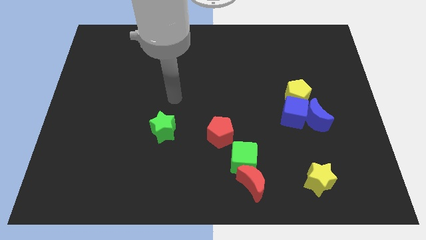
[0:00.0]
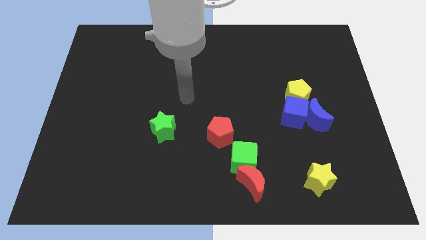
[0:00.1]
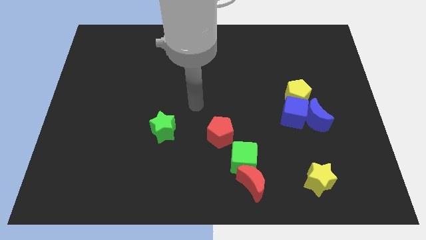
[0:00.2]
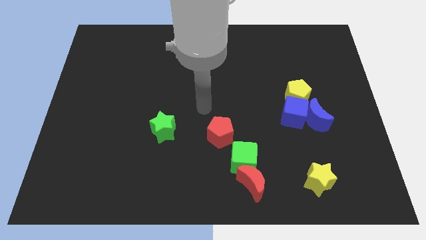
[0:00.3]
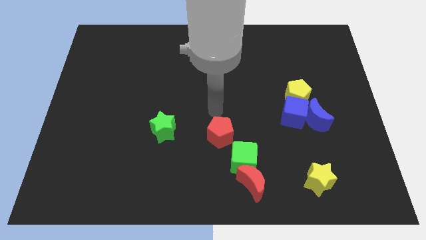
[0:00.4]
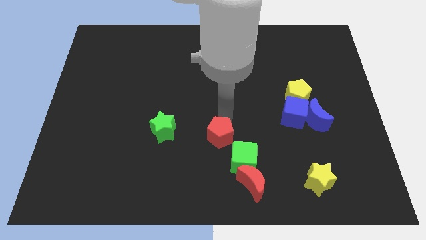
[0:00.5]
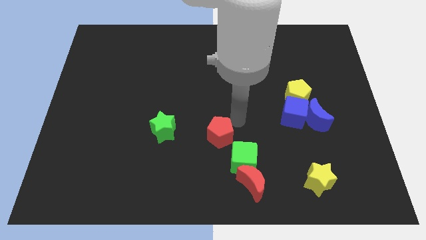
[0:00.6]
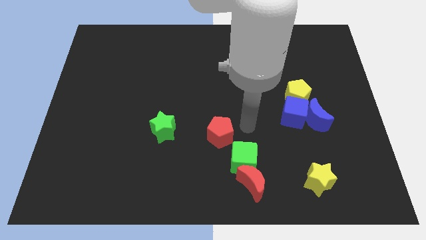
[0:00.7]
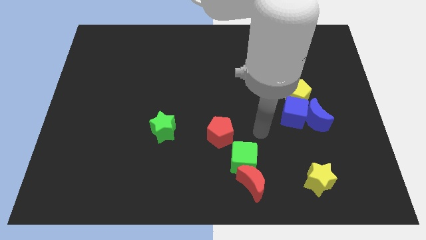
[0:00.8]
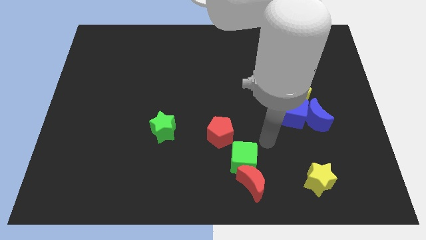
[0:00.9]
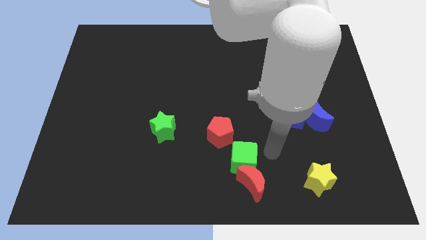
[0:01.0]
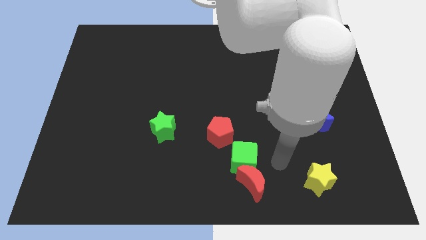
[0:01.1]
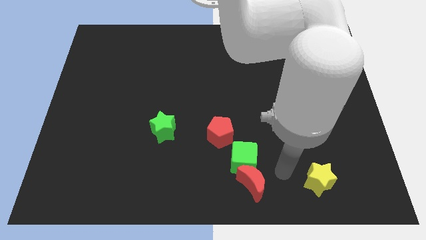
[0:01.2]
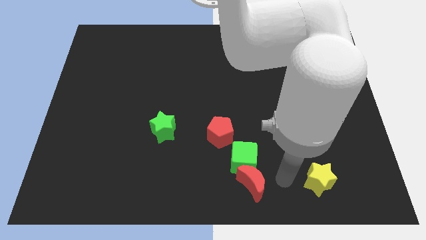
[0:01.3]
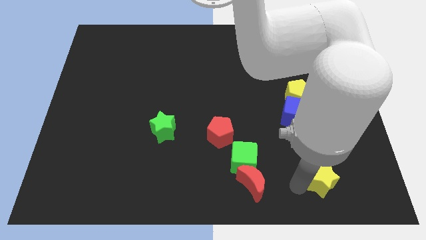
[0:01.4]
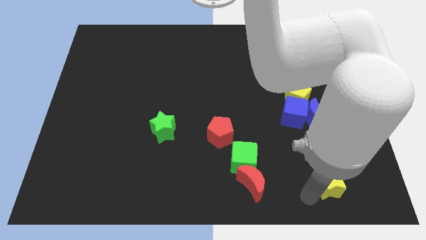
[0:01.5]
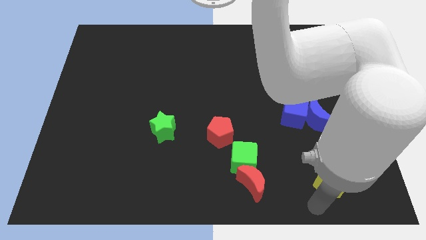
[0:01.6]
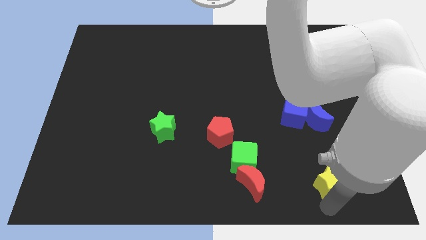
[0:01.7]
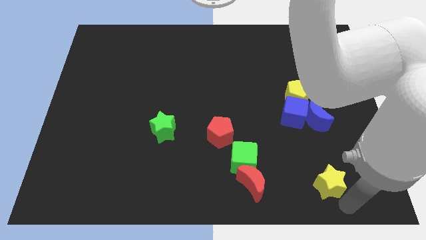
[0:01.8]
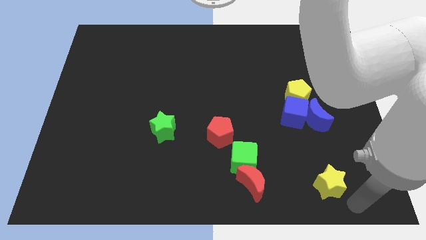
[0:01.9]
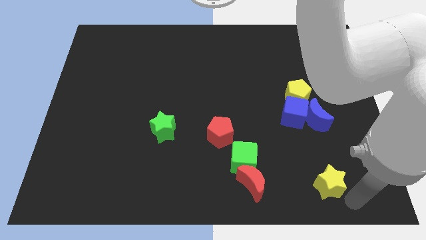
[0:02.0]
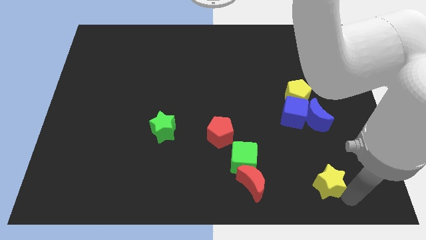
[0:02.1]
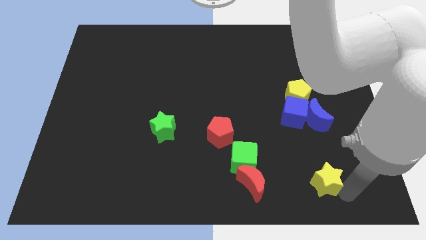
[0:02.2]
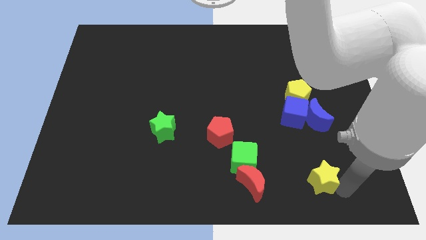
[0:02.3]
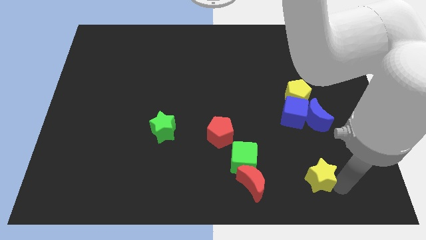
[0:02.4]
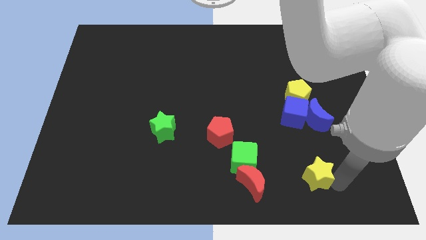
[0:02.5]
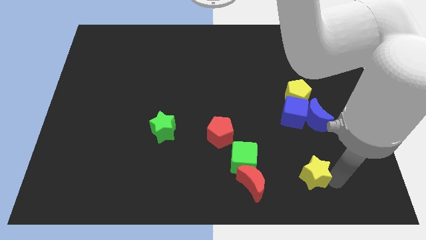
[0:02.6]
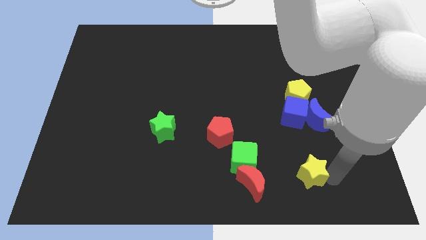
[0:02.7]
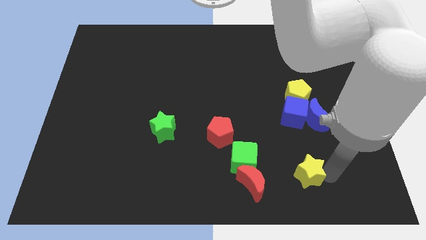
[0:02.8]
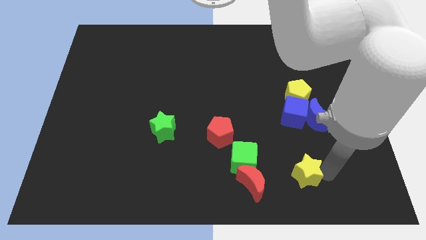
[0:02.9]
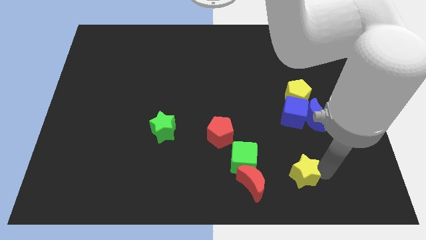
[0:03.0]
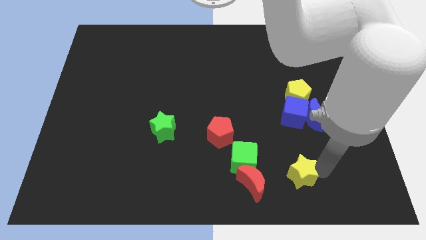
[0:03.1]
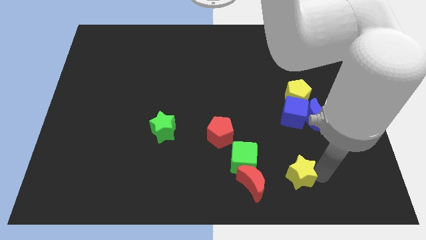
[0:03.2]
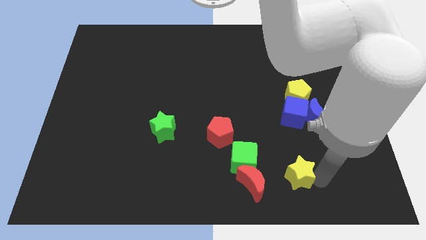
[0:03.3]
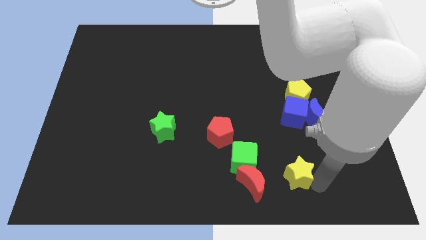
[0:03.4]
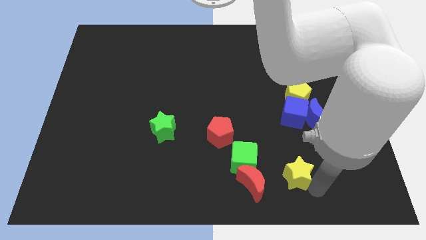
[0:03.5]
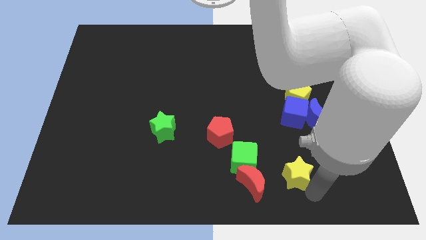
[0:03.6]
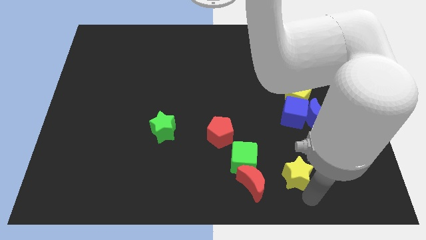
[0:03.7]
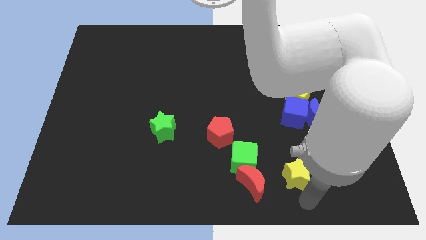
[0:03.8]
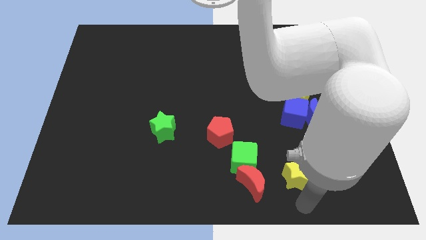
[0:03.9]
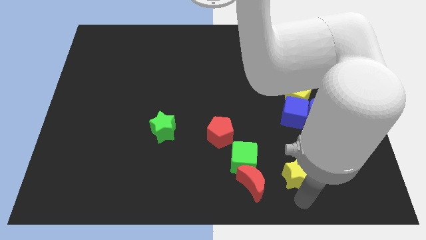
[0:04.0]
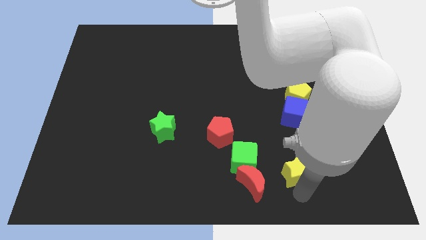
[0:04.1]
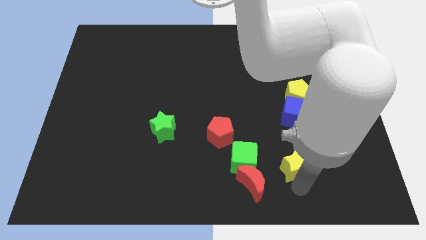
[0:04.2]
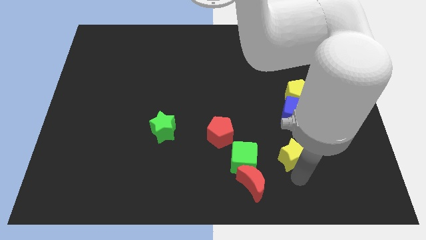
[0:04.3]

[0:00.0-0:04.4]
move the yellow star somewhat up and to the left

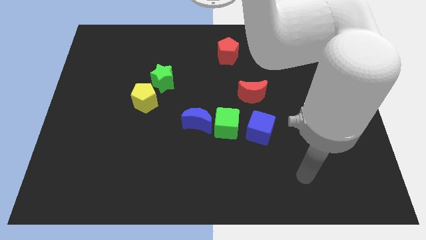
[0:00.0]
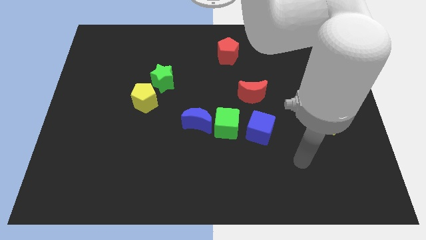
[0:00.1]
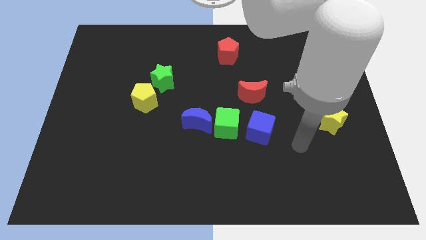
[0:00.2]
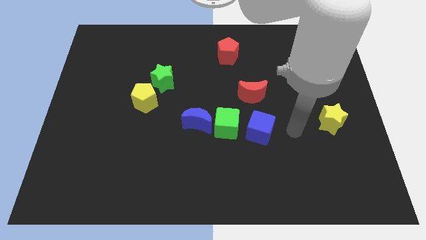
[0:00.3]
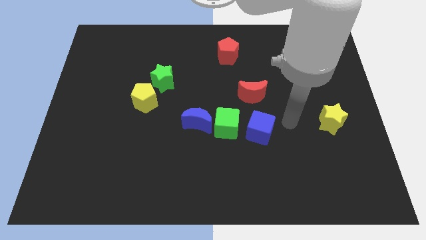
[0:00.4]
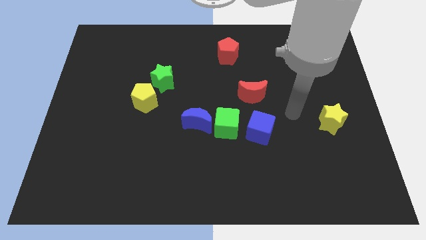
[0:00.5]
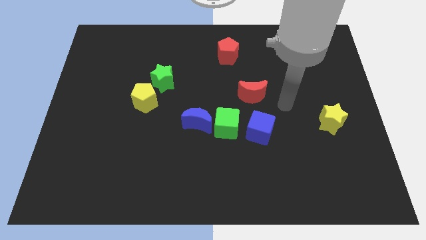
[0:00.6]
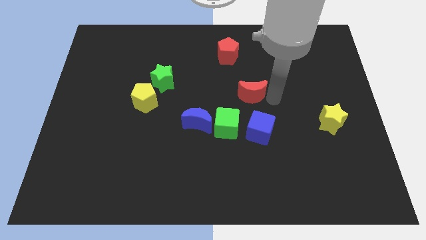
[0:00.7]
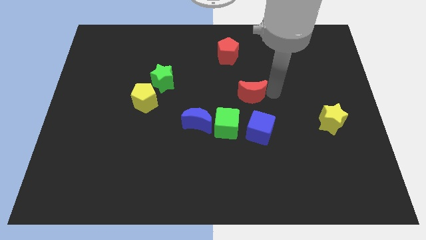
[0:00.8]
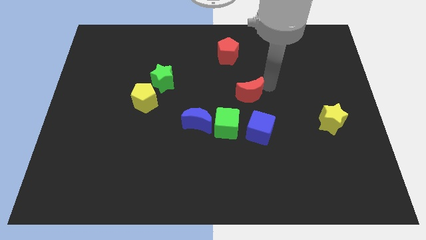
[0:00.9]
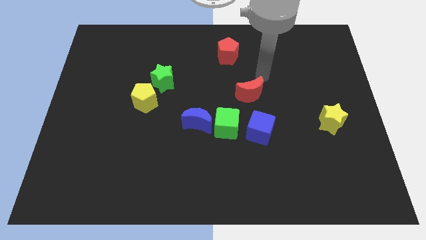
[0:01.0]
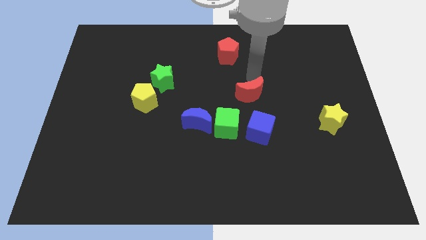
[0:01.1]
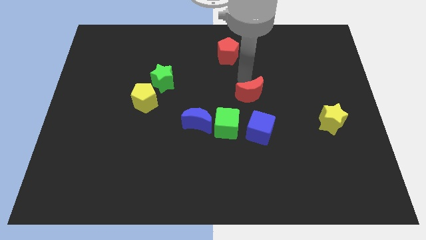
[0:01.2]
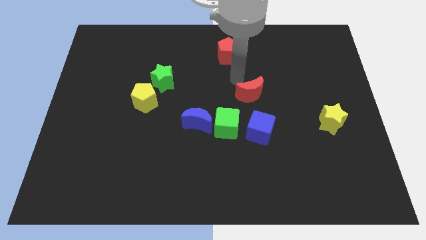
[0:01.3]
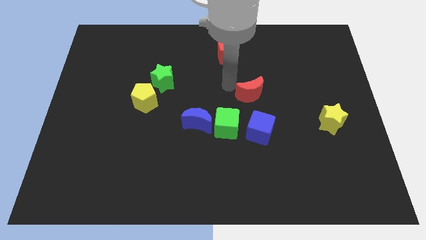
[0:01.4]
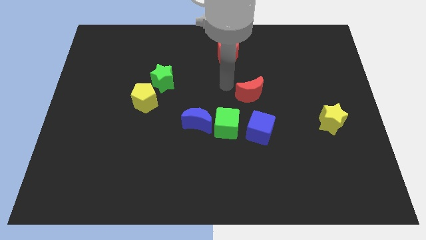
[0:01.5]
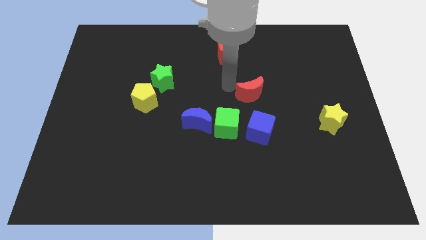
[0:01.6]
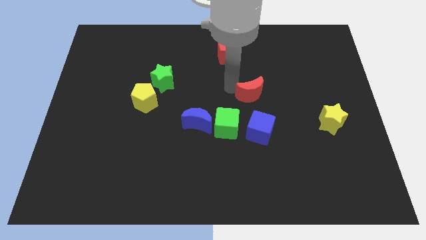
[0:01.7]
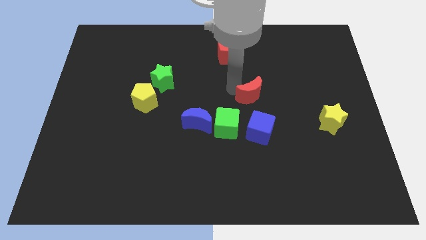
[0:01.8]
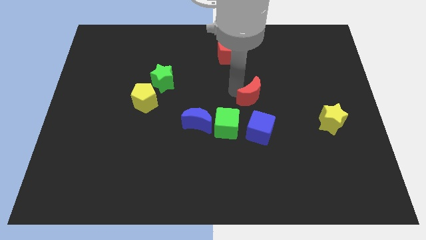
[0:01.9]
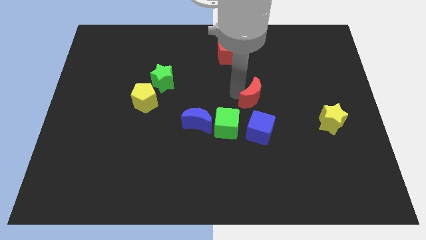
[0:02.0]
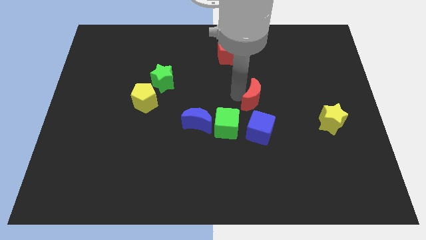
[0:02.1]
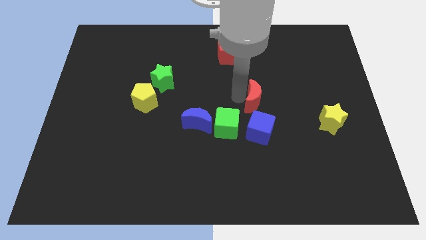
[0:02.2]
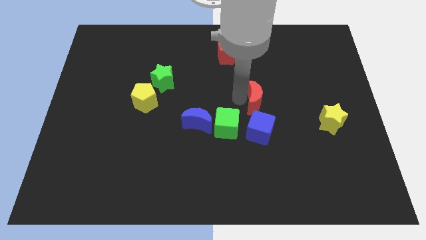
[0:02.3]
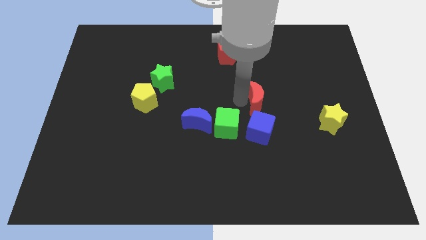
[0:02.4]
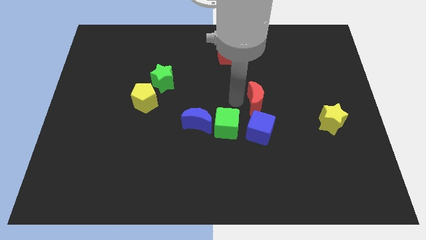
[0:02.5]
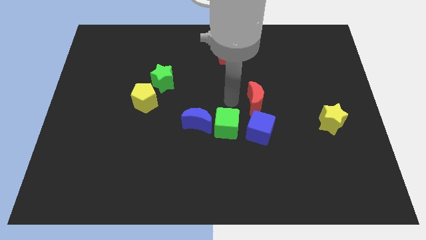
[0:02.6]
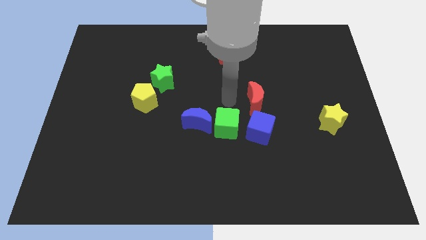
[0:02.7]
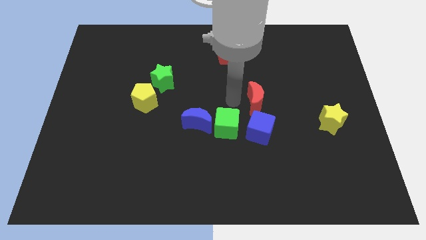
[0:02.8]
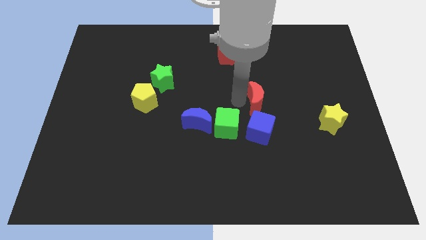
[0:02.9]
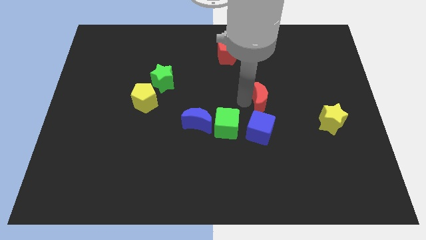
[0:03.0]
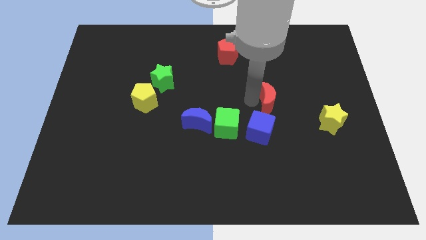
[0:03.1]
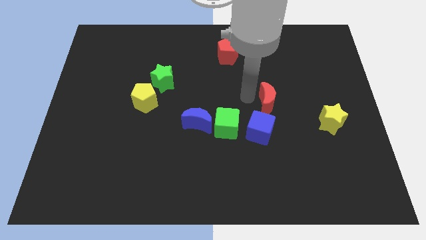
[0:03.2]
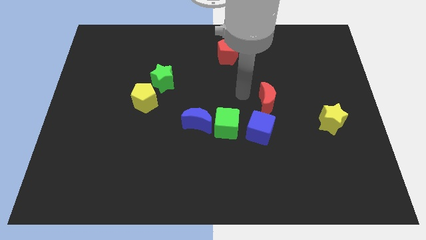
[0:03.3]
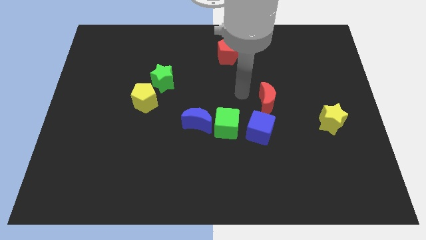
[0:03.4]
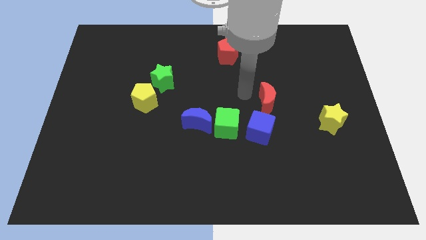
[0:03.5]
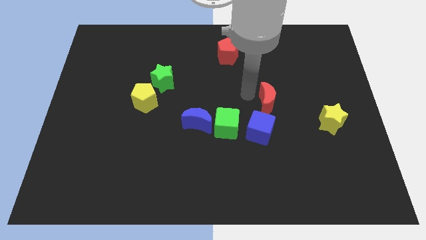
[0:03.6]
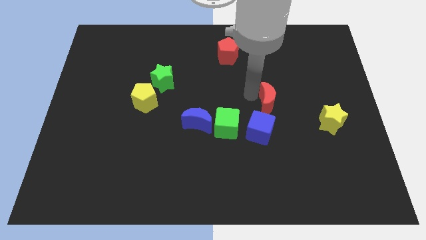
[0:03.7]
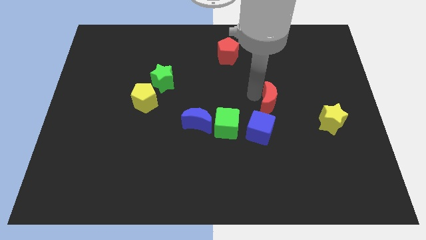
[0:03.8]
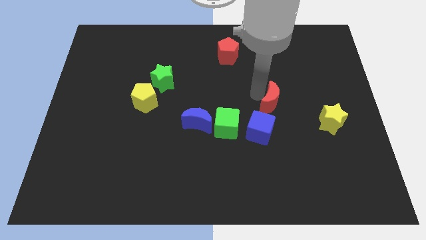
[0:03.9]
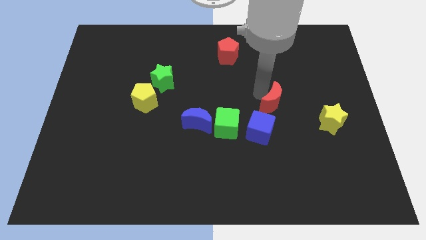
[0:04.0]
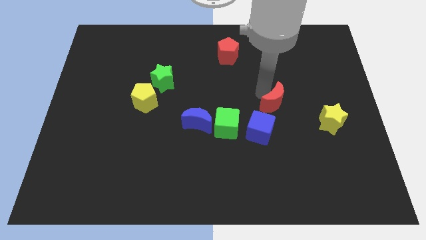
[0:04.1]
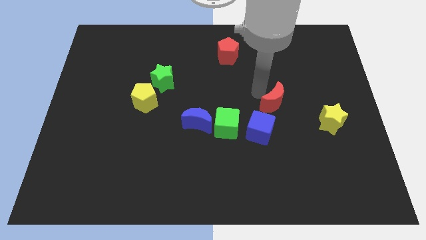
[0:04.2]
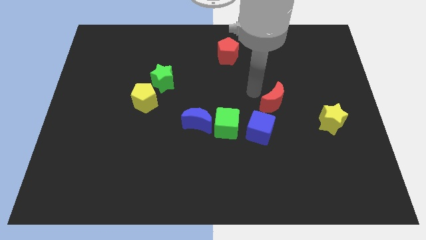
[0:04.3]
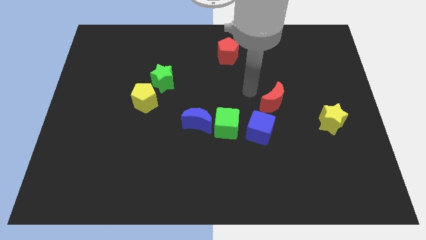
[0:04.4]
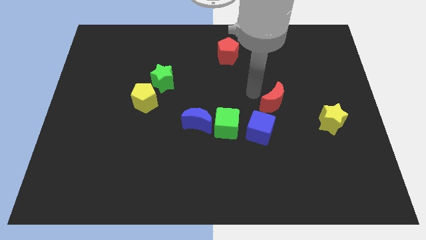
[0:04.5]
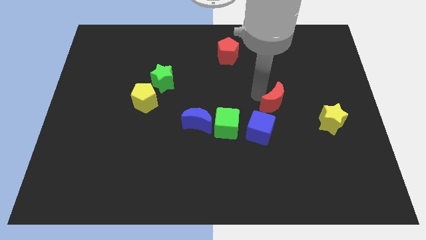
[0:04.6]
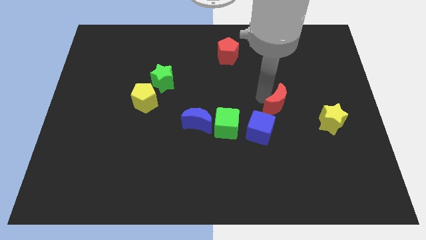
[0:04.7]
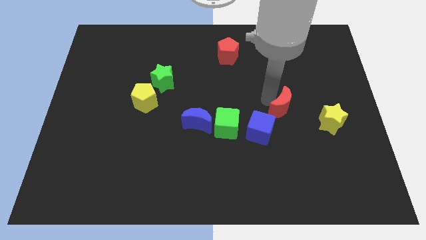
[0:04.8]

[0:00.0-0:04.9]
push the red moon slightly downwards and to the right
